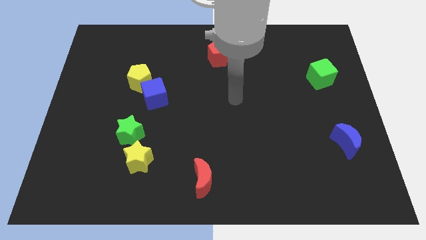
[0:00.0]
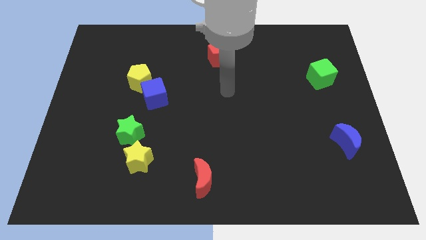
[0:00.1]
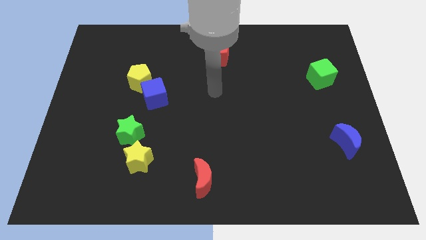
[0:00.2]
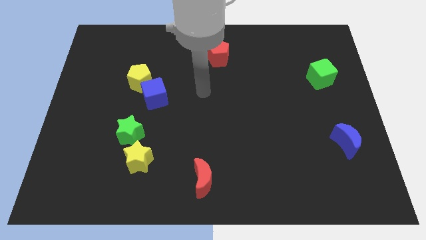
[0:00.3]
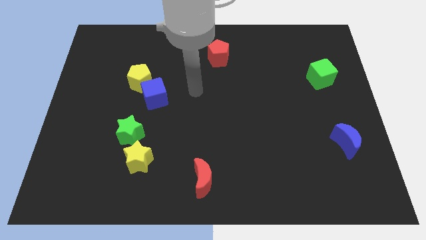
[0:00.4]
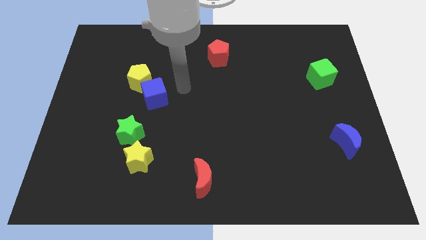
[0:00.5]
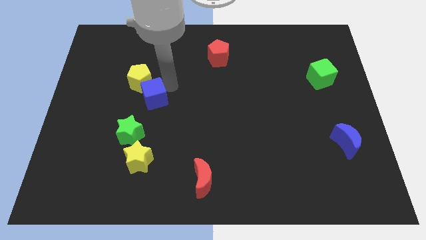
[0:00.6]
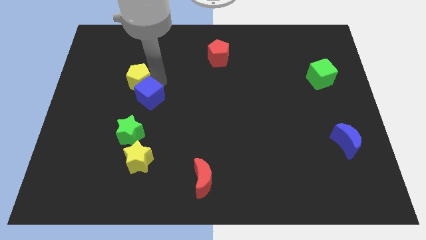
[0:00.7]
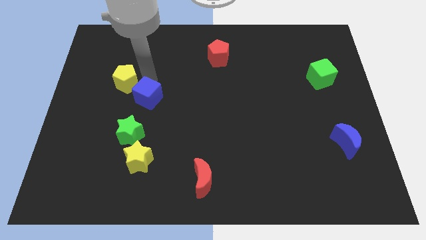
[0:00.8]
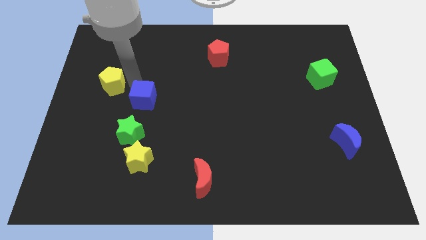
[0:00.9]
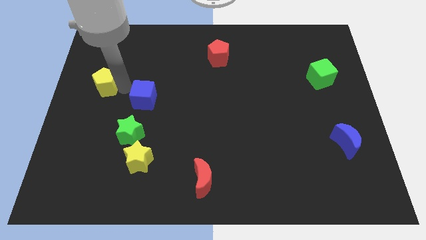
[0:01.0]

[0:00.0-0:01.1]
separate the blue cube from the yellow pentagon

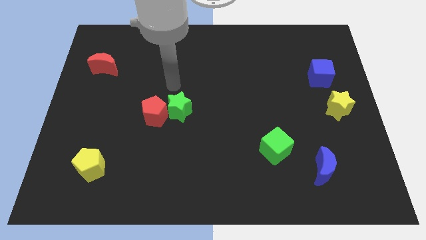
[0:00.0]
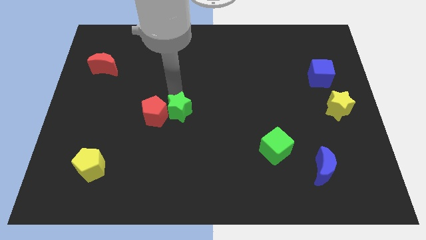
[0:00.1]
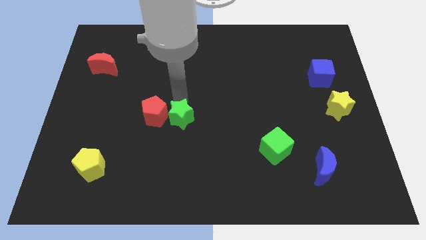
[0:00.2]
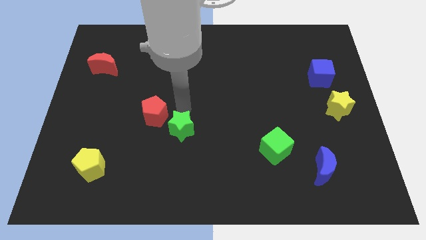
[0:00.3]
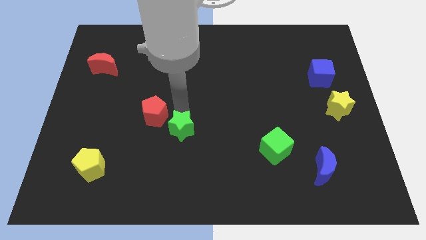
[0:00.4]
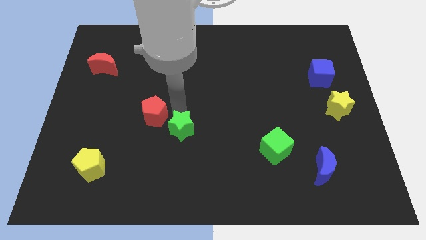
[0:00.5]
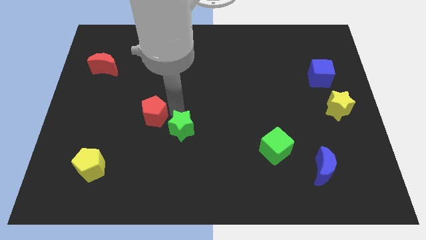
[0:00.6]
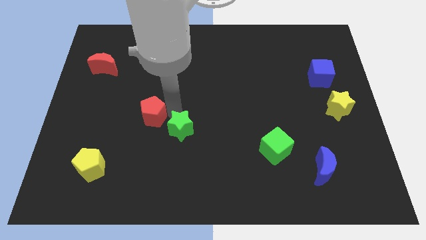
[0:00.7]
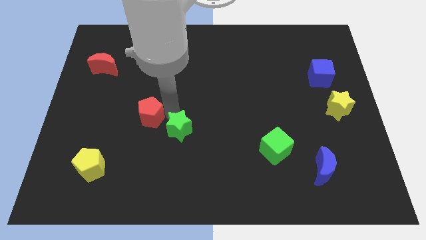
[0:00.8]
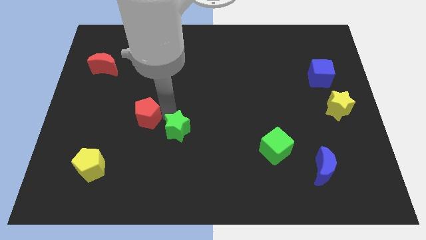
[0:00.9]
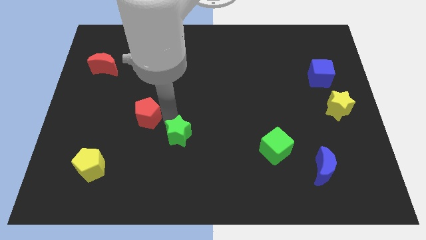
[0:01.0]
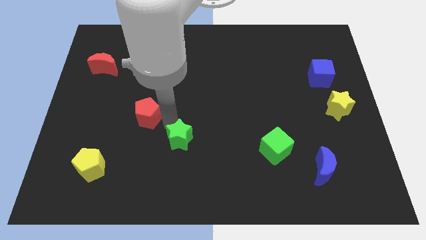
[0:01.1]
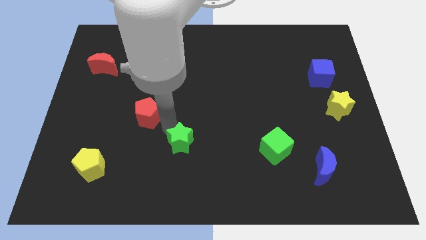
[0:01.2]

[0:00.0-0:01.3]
pull the red pentagon apart from the green star

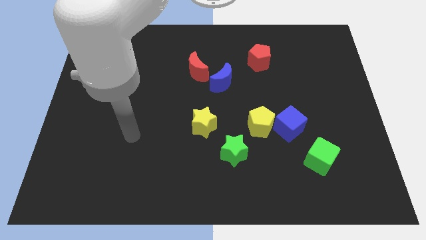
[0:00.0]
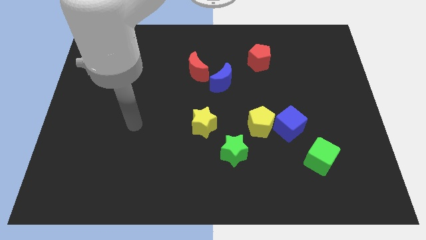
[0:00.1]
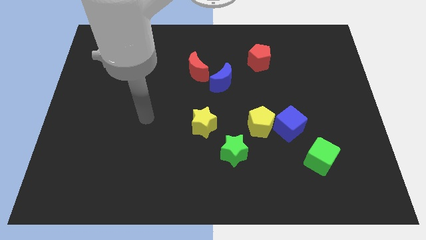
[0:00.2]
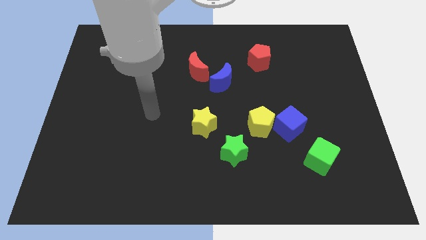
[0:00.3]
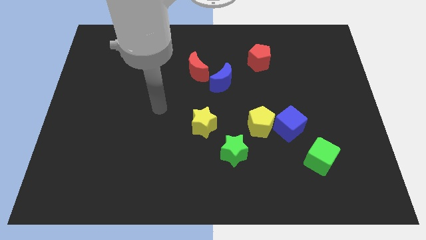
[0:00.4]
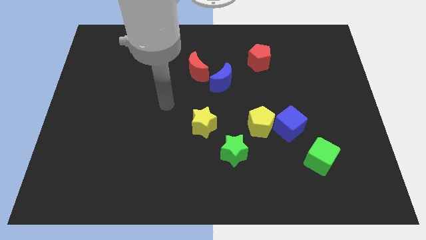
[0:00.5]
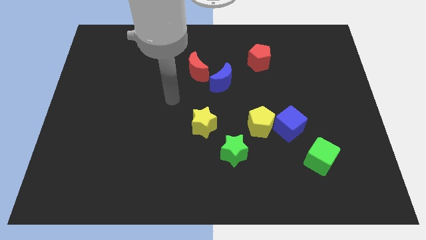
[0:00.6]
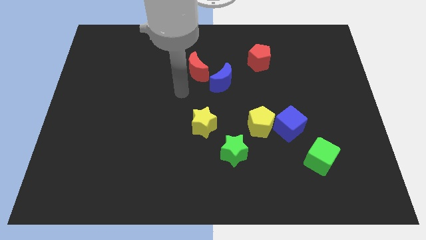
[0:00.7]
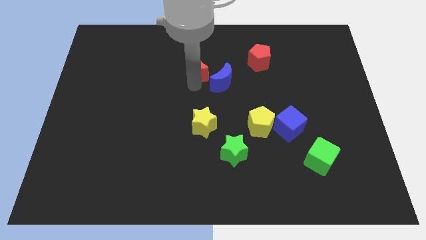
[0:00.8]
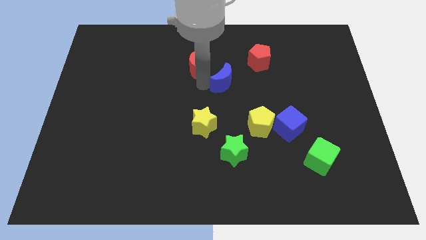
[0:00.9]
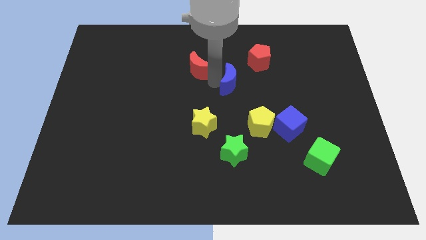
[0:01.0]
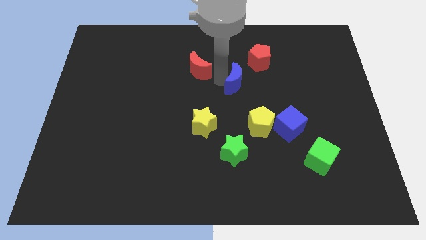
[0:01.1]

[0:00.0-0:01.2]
move the red moon away from the blue moon

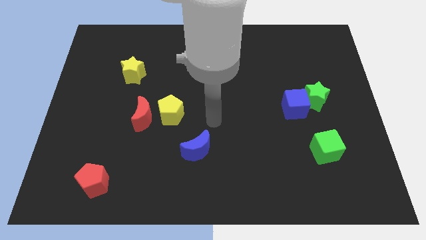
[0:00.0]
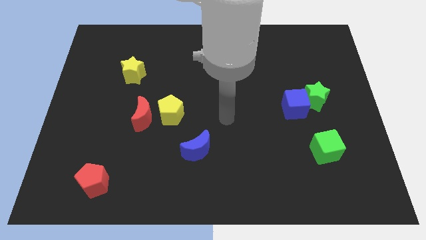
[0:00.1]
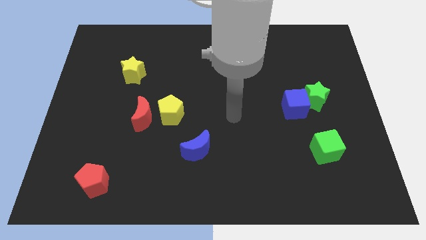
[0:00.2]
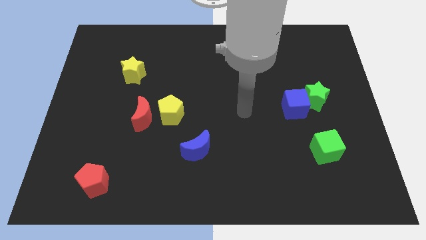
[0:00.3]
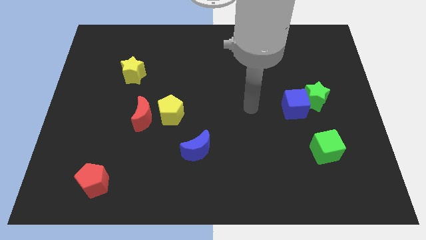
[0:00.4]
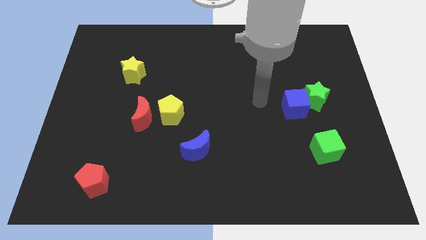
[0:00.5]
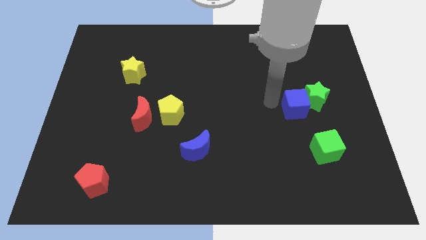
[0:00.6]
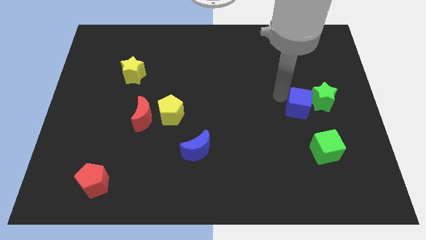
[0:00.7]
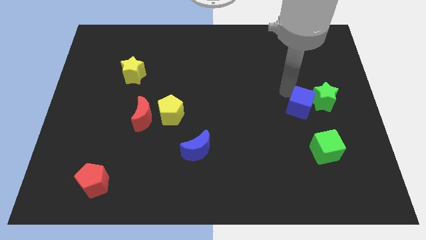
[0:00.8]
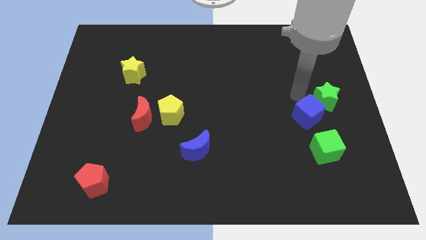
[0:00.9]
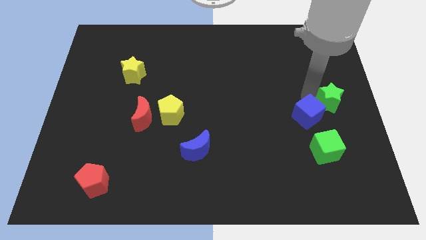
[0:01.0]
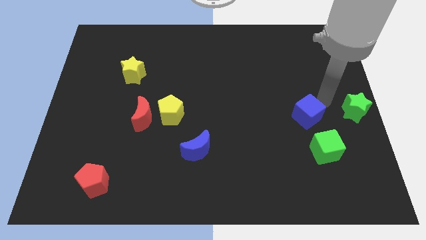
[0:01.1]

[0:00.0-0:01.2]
move the blue cube away from the green star

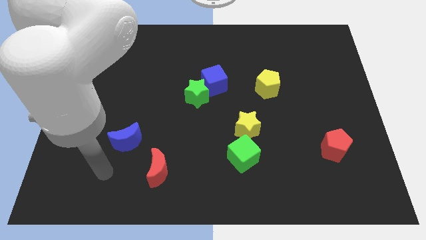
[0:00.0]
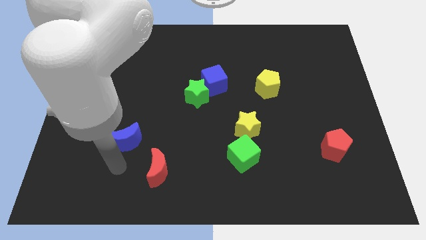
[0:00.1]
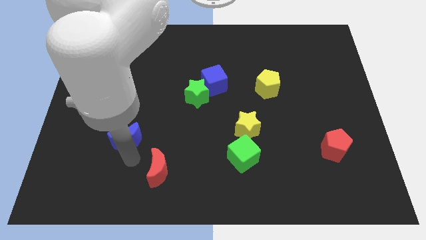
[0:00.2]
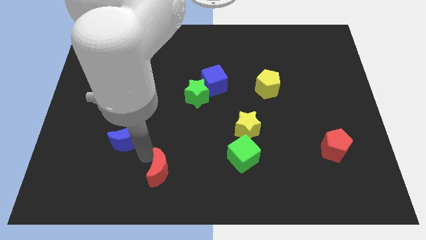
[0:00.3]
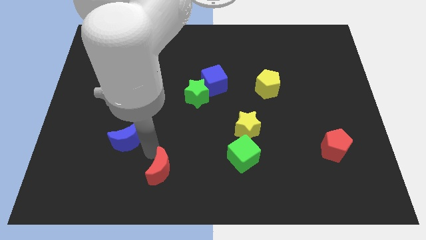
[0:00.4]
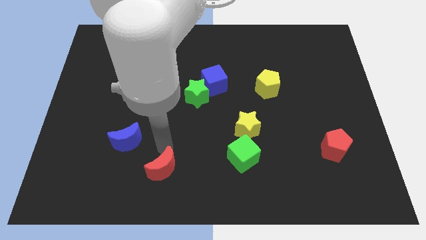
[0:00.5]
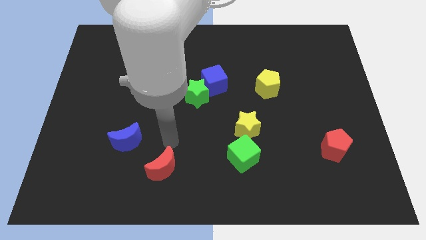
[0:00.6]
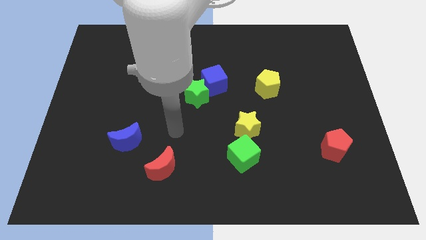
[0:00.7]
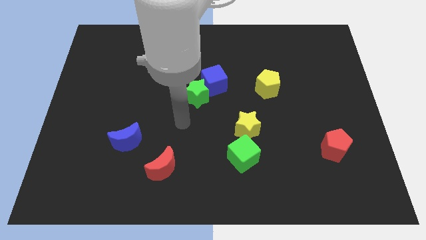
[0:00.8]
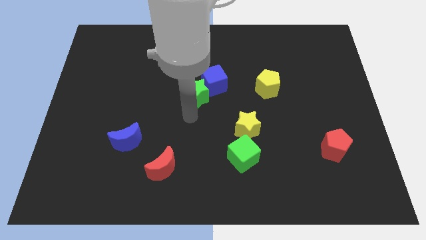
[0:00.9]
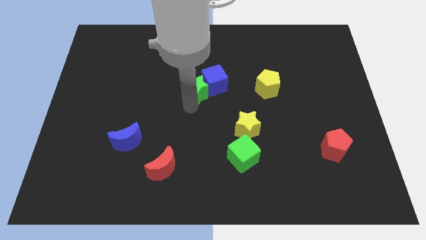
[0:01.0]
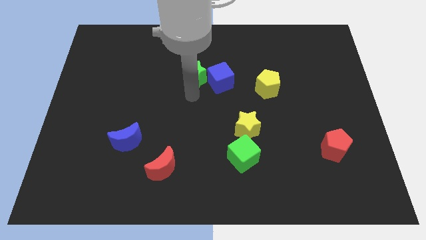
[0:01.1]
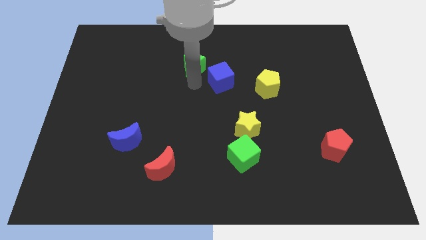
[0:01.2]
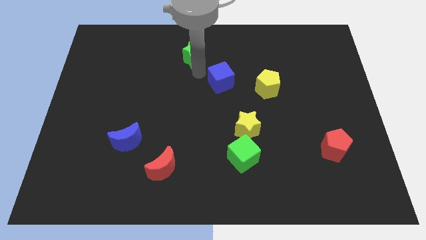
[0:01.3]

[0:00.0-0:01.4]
separate the blue cube from the green star

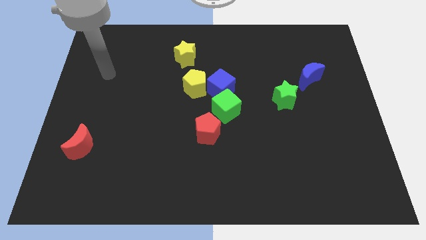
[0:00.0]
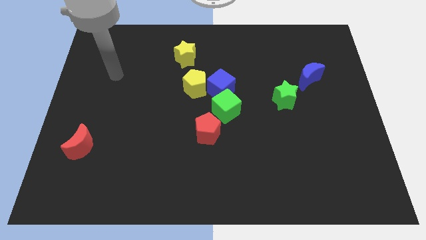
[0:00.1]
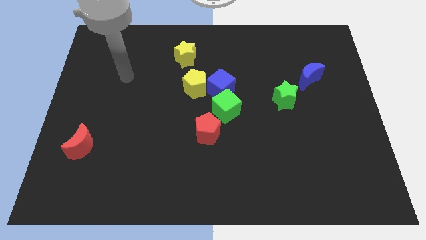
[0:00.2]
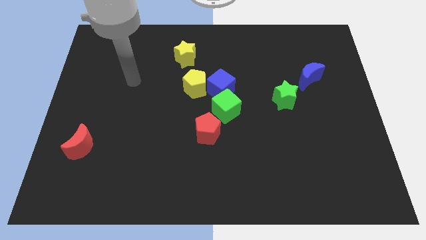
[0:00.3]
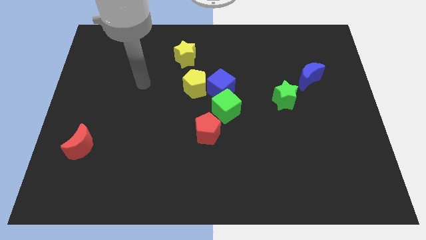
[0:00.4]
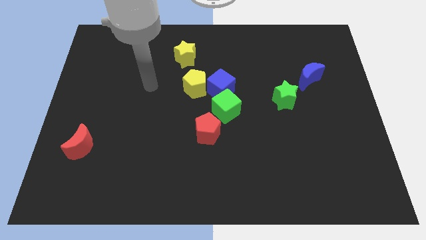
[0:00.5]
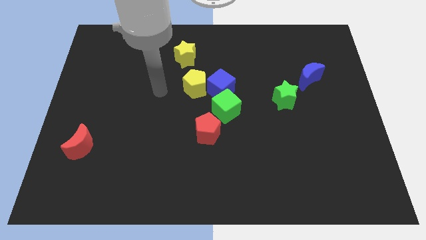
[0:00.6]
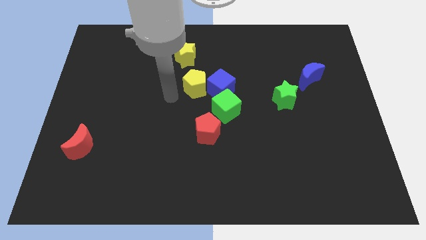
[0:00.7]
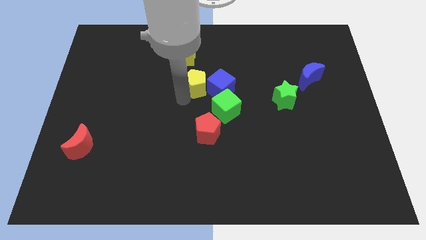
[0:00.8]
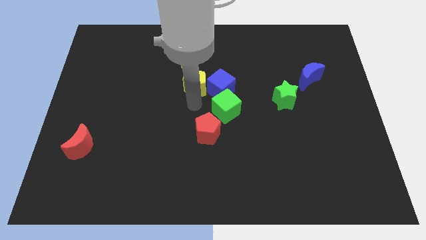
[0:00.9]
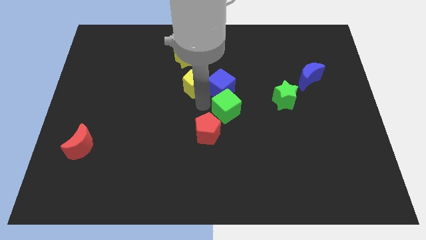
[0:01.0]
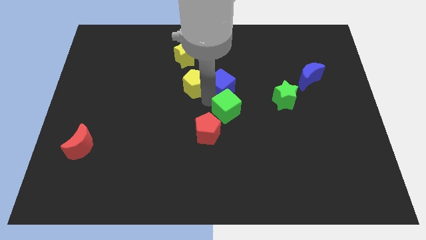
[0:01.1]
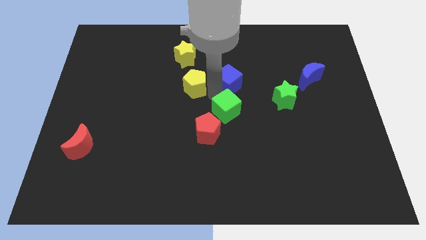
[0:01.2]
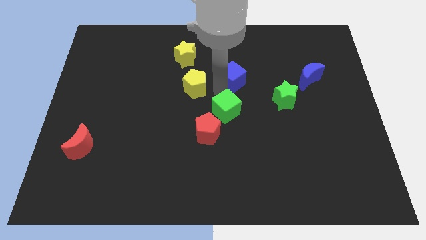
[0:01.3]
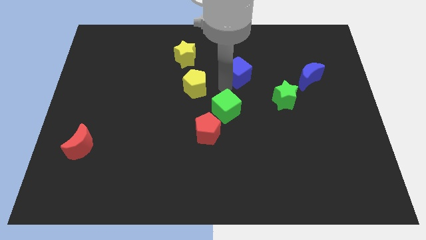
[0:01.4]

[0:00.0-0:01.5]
separate the blue cube from the yellow pentagon and green cube

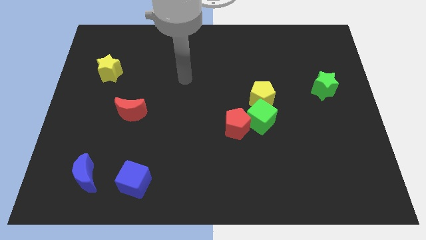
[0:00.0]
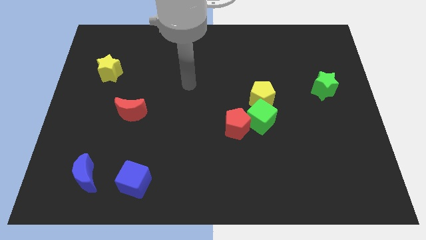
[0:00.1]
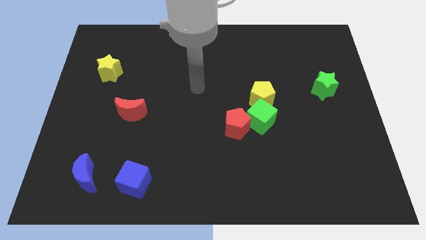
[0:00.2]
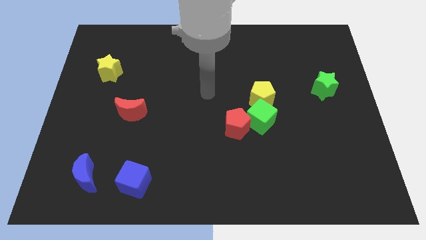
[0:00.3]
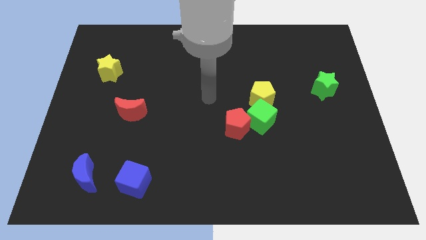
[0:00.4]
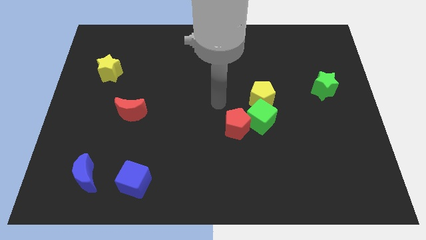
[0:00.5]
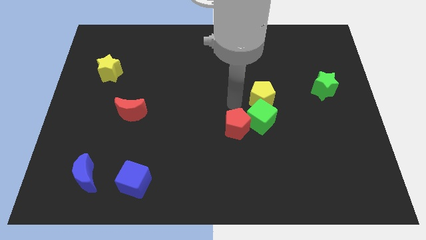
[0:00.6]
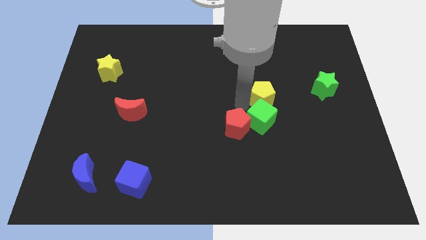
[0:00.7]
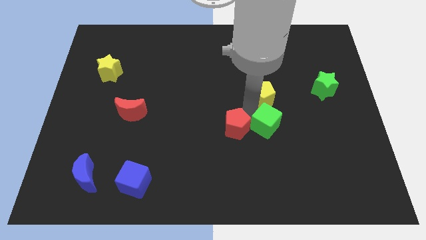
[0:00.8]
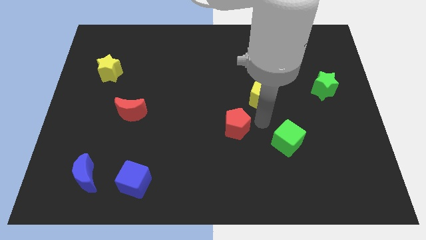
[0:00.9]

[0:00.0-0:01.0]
separate the red pentagon from the green cube

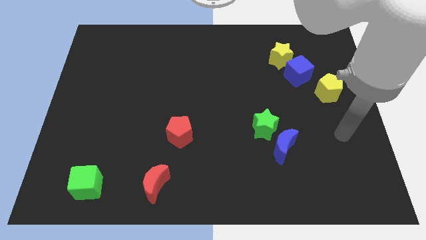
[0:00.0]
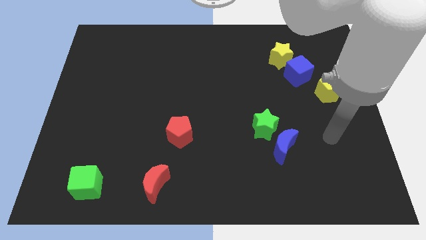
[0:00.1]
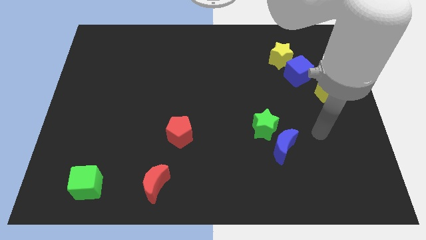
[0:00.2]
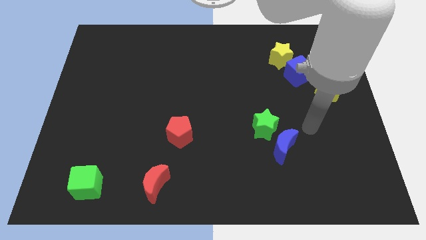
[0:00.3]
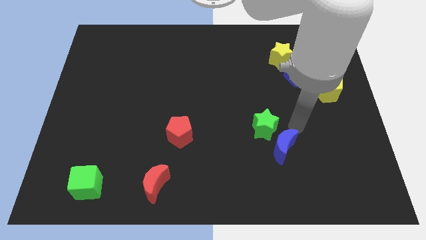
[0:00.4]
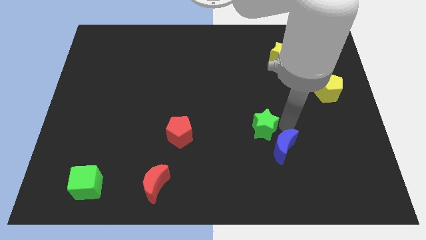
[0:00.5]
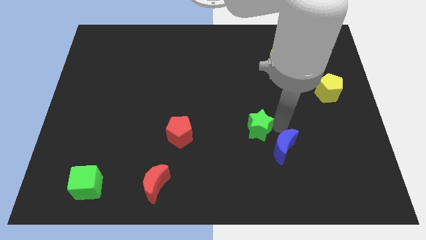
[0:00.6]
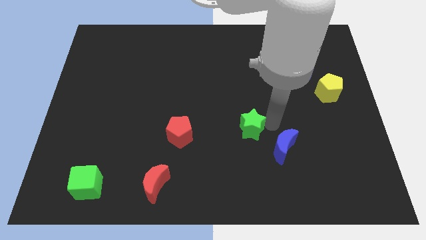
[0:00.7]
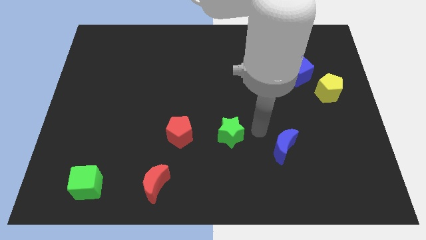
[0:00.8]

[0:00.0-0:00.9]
pull the blue moon apart from the green star
